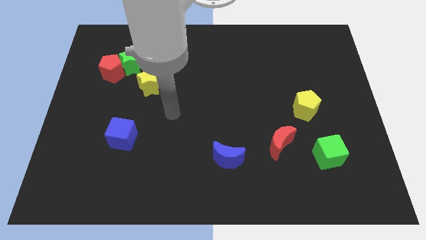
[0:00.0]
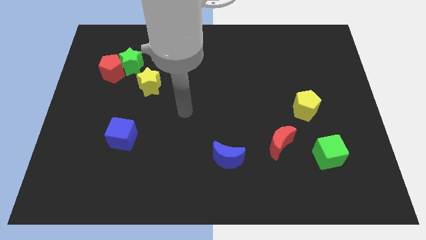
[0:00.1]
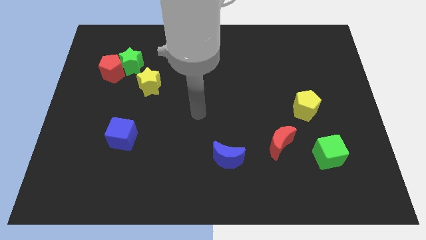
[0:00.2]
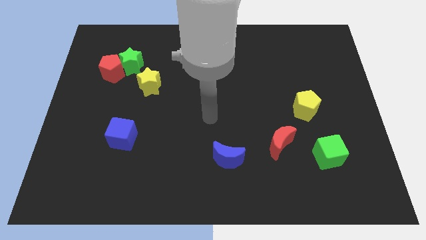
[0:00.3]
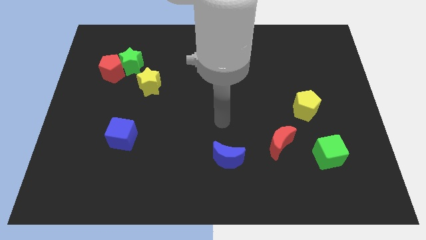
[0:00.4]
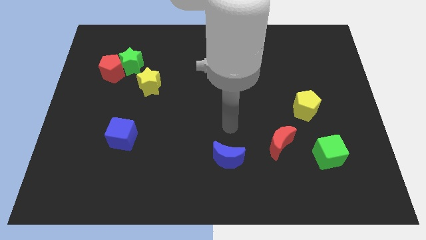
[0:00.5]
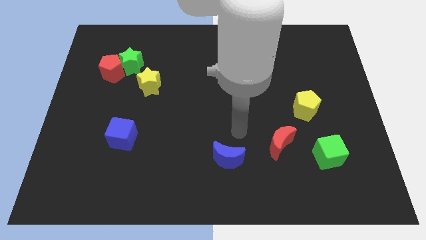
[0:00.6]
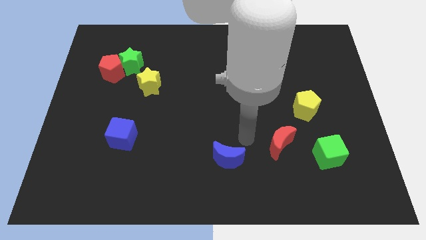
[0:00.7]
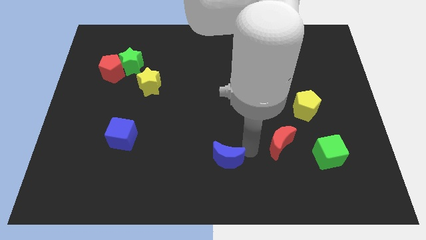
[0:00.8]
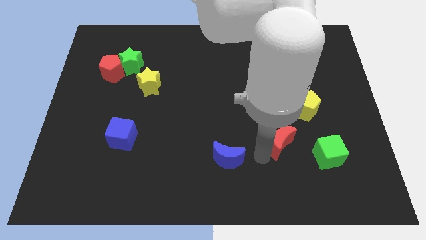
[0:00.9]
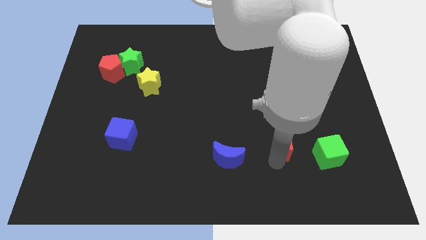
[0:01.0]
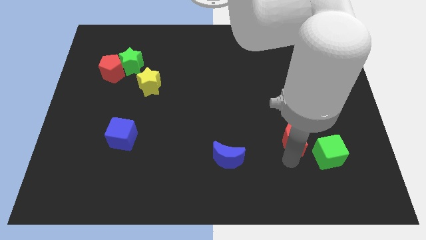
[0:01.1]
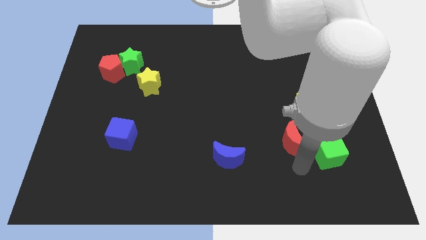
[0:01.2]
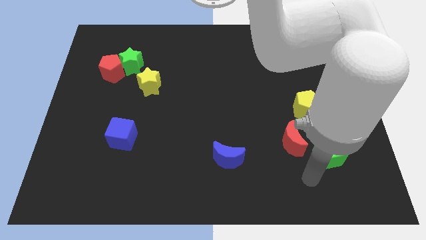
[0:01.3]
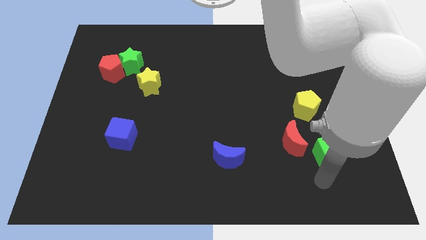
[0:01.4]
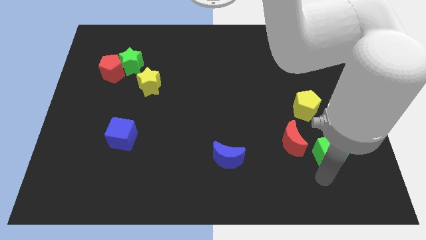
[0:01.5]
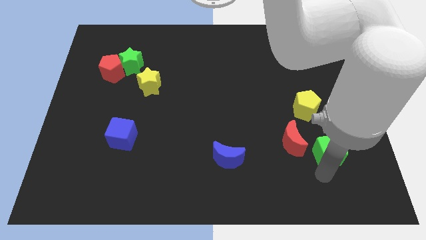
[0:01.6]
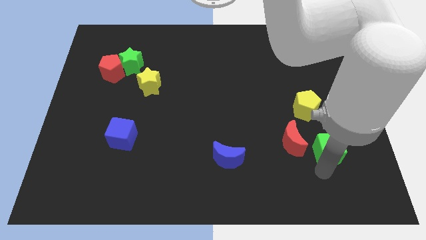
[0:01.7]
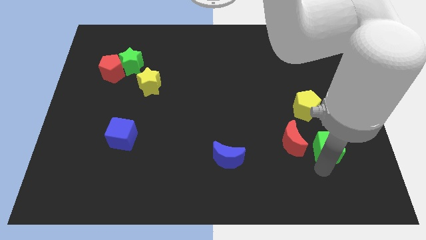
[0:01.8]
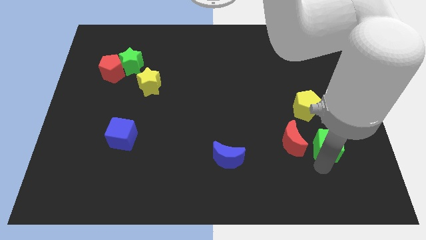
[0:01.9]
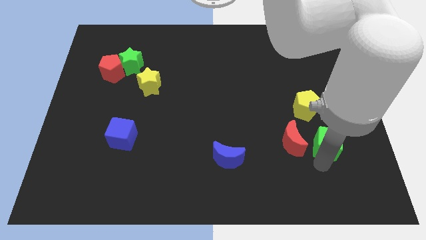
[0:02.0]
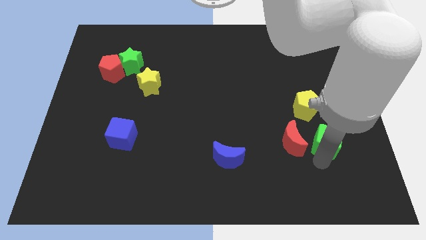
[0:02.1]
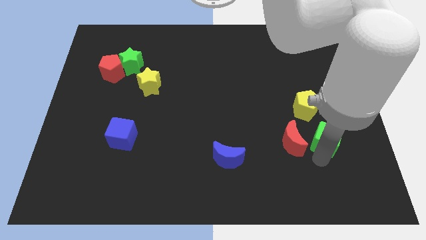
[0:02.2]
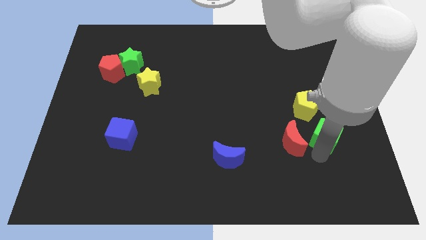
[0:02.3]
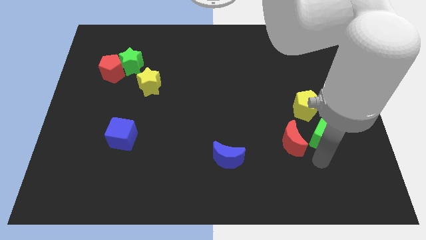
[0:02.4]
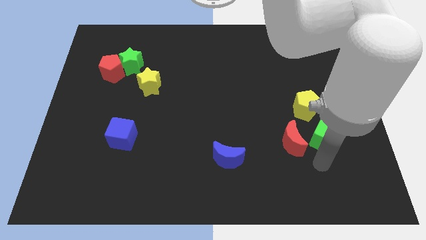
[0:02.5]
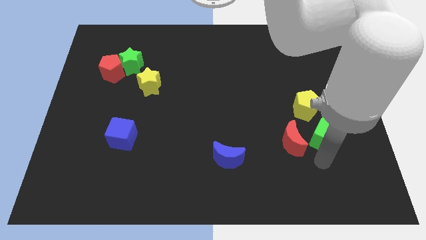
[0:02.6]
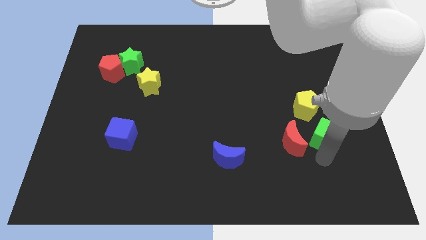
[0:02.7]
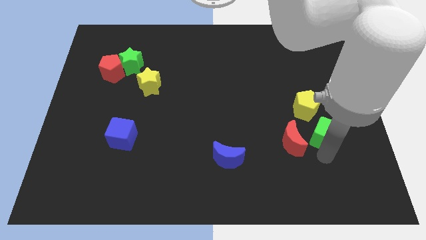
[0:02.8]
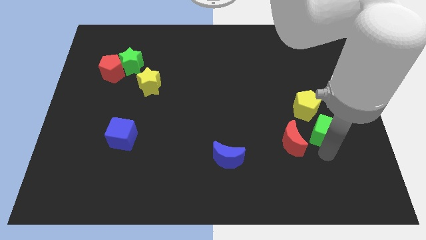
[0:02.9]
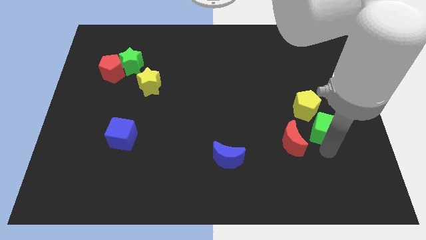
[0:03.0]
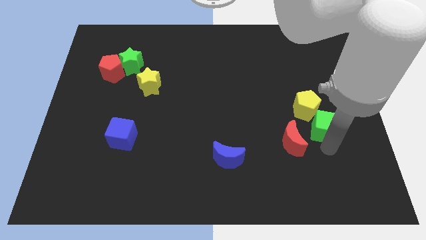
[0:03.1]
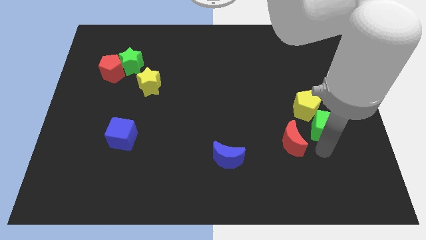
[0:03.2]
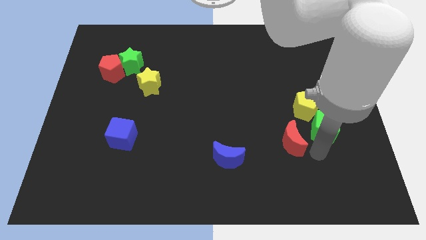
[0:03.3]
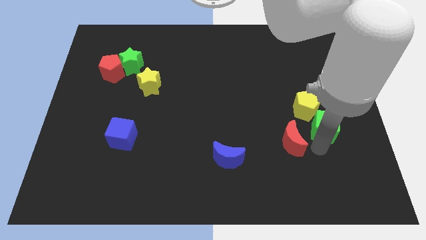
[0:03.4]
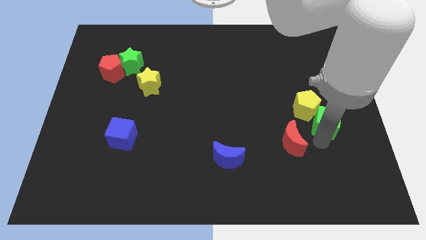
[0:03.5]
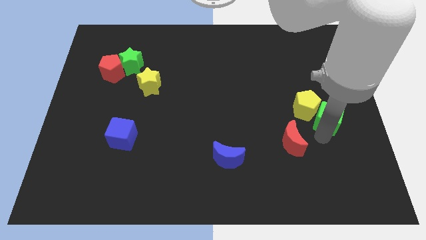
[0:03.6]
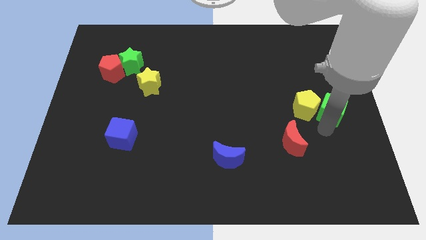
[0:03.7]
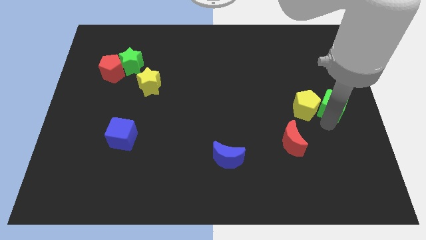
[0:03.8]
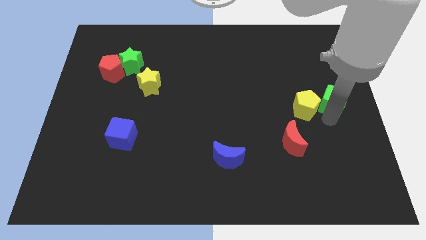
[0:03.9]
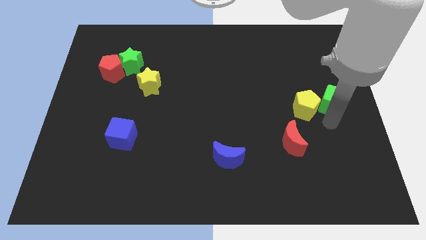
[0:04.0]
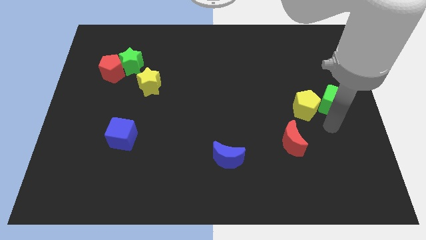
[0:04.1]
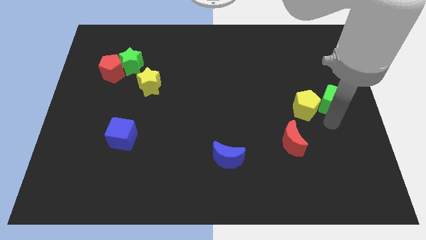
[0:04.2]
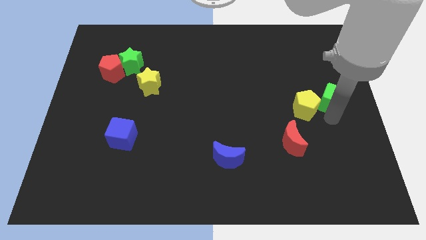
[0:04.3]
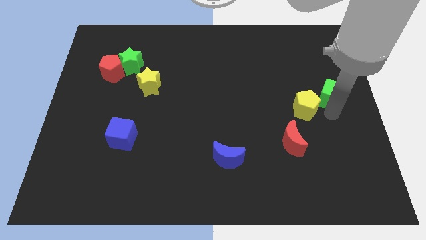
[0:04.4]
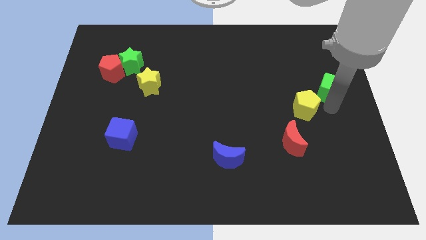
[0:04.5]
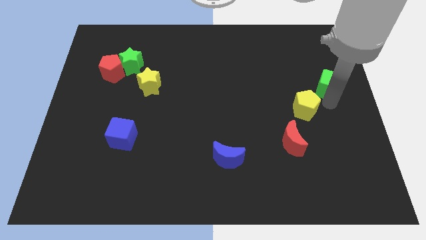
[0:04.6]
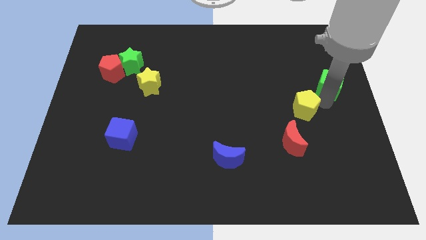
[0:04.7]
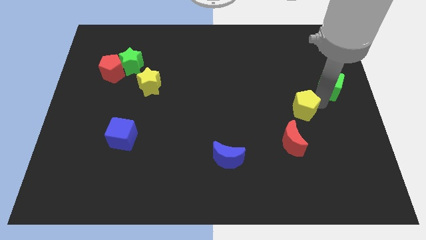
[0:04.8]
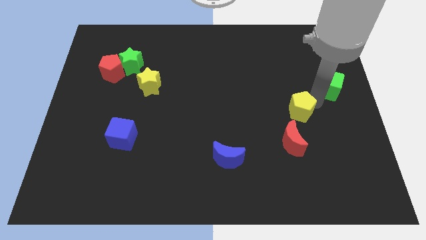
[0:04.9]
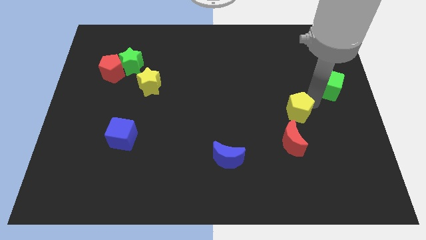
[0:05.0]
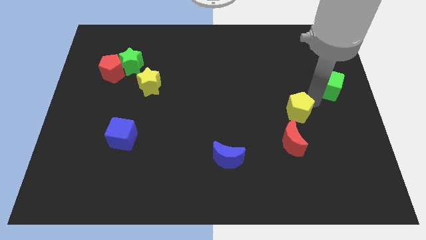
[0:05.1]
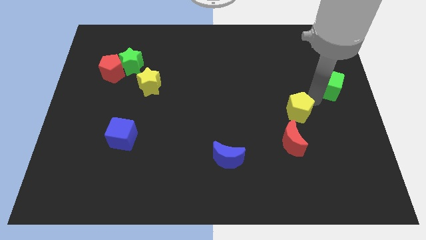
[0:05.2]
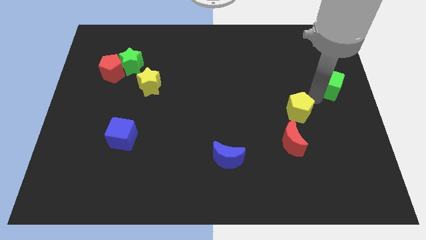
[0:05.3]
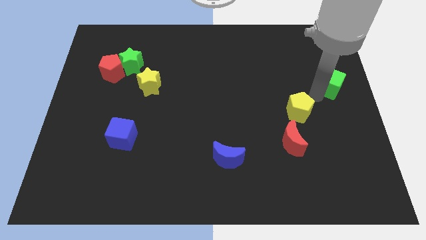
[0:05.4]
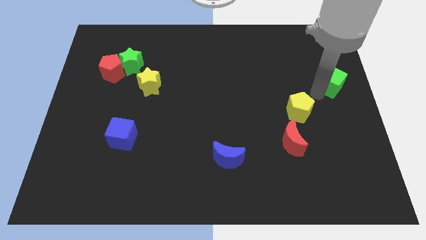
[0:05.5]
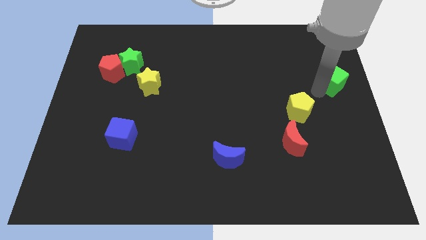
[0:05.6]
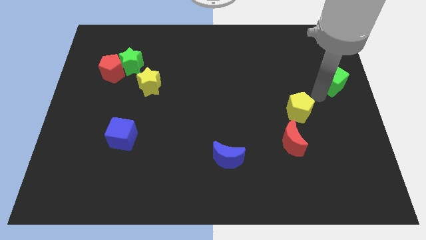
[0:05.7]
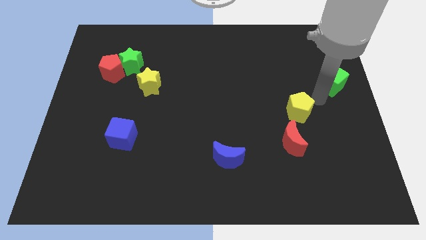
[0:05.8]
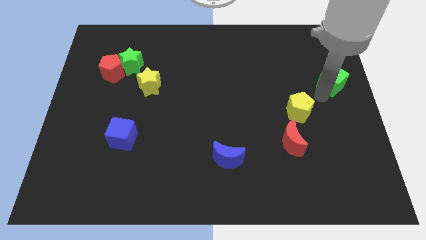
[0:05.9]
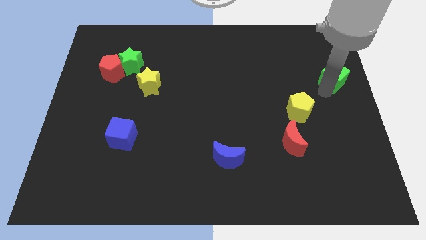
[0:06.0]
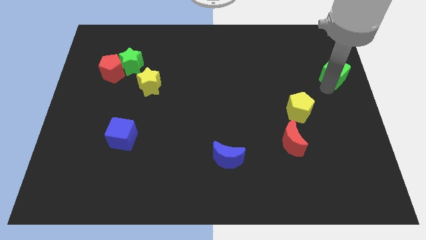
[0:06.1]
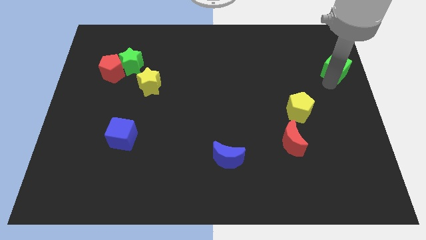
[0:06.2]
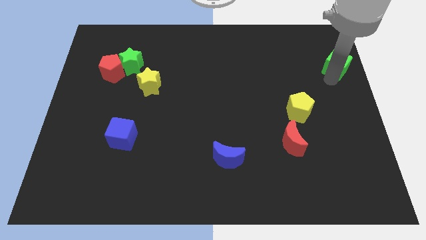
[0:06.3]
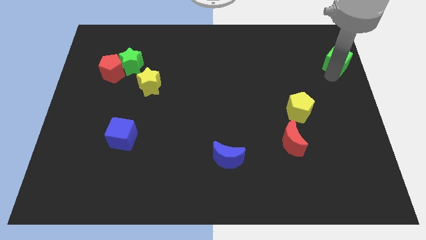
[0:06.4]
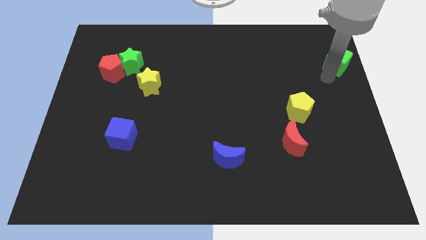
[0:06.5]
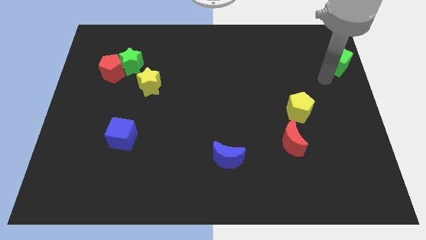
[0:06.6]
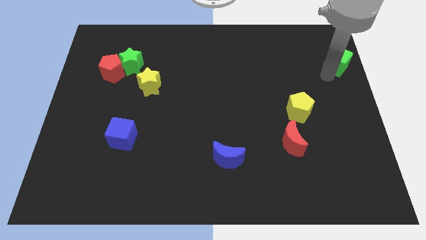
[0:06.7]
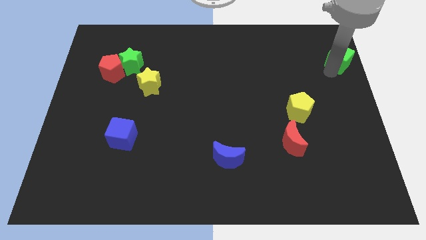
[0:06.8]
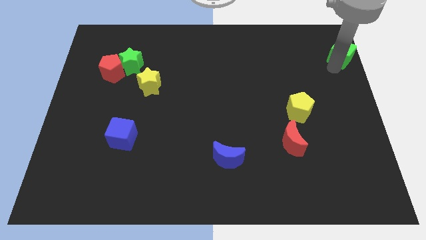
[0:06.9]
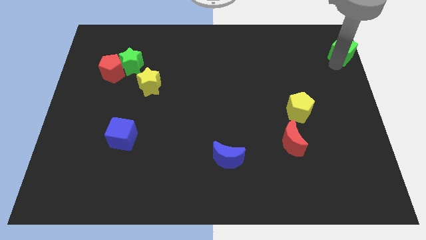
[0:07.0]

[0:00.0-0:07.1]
slide the green cube to the top right of the board

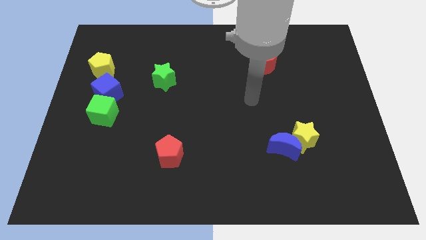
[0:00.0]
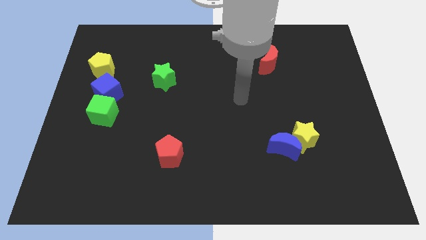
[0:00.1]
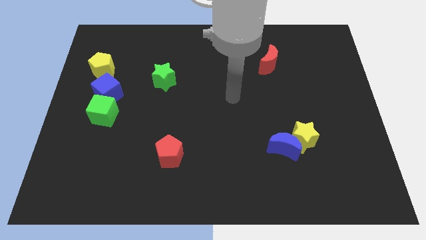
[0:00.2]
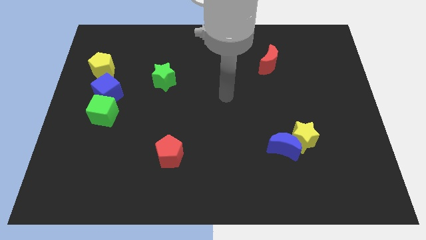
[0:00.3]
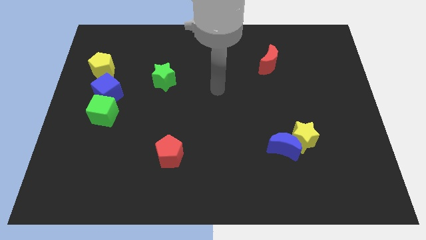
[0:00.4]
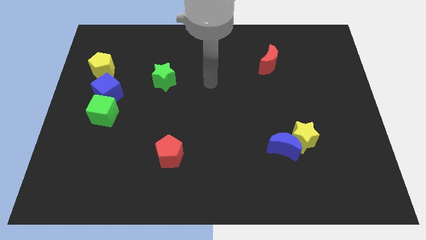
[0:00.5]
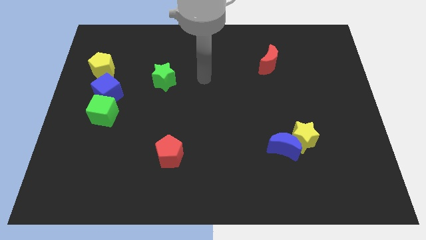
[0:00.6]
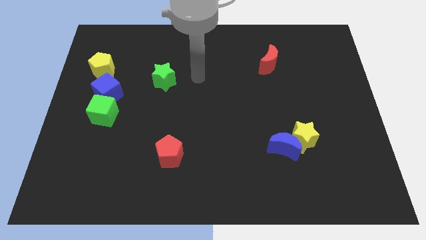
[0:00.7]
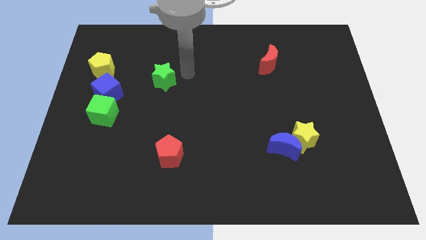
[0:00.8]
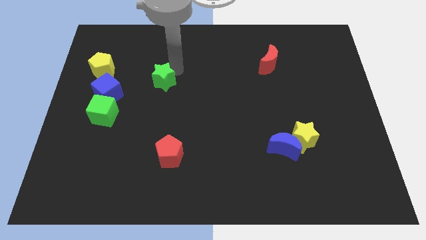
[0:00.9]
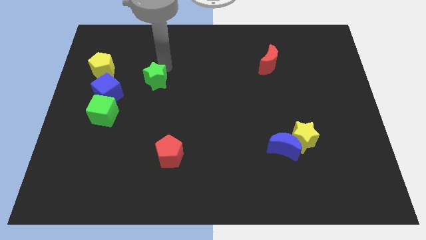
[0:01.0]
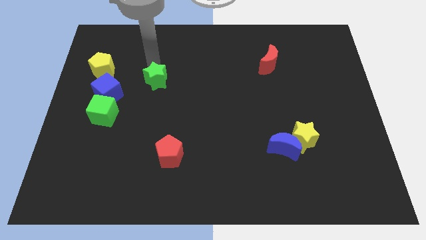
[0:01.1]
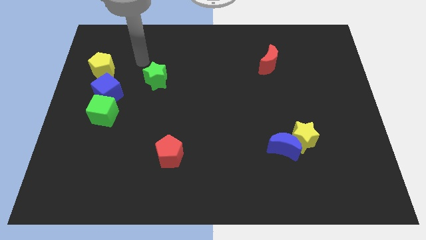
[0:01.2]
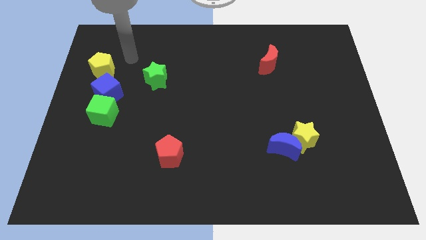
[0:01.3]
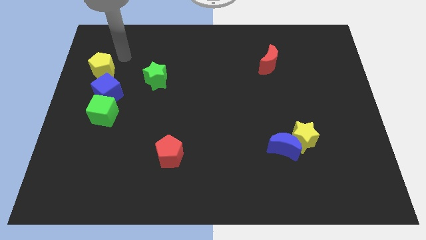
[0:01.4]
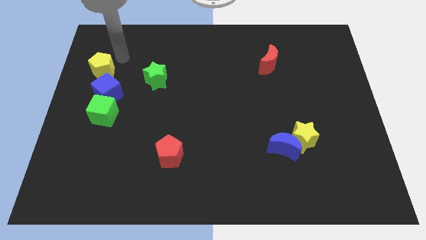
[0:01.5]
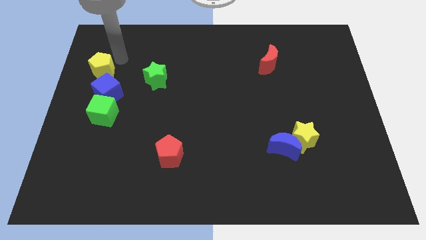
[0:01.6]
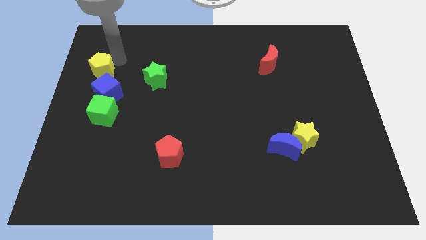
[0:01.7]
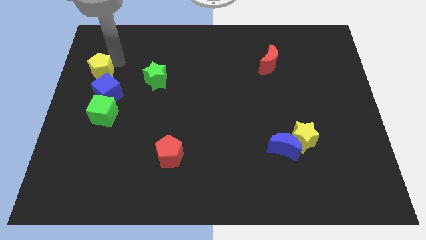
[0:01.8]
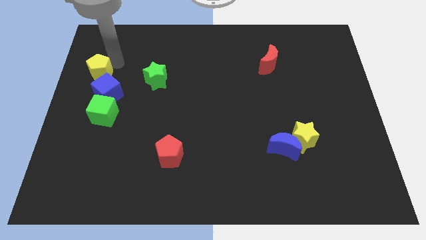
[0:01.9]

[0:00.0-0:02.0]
move the yellow pentagon to the left side
